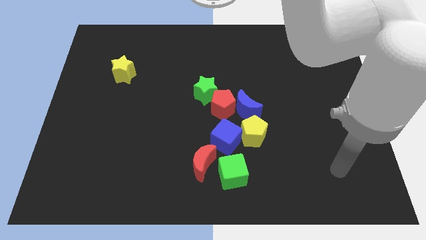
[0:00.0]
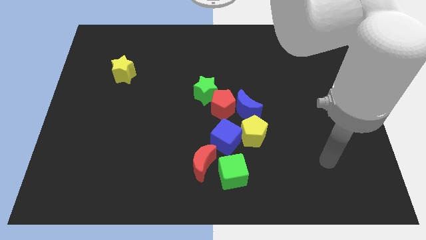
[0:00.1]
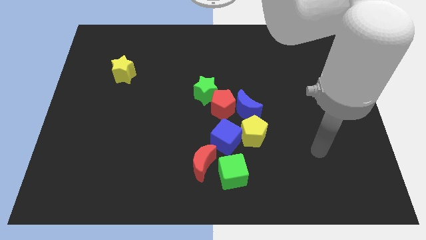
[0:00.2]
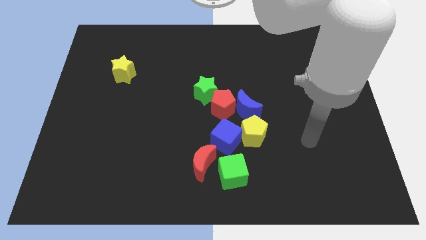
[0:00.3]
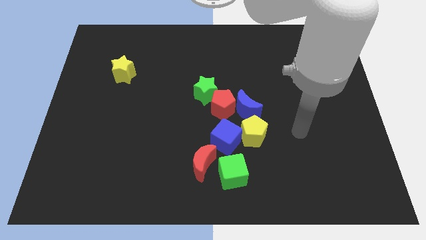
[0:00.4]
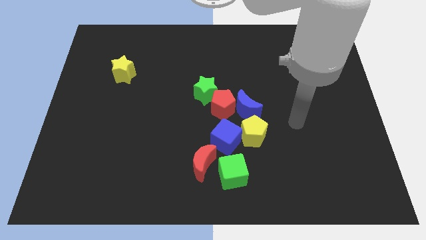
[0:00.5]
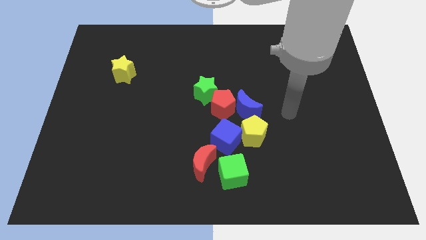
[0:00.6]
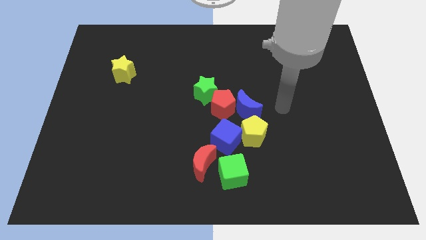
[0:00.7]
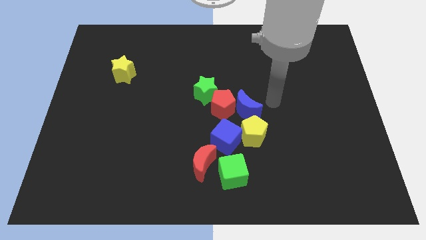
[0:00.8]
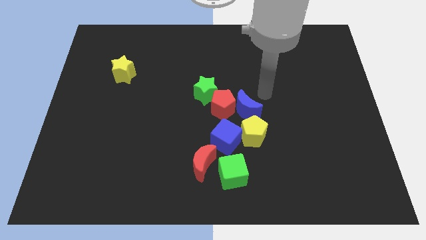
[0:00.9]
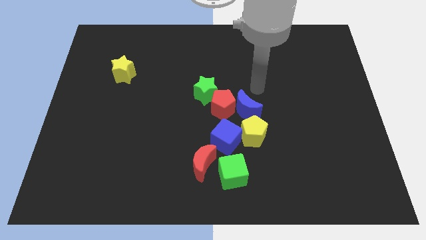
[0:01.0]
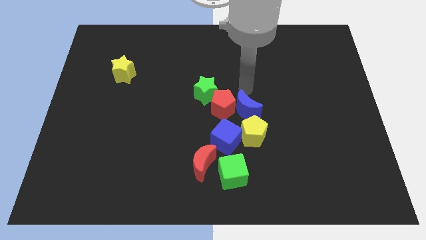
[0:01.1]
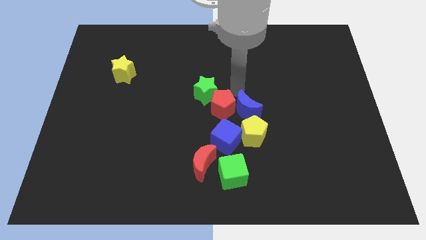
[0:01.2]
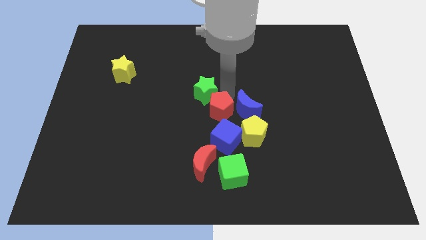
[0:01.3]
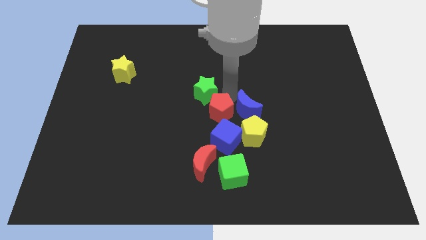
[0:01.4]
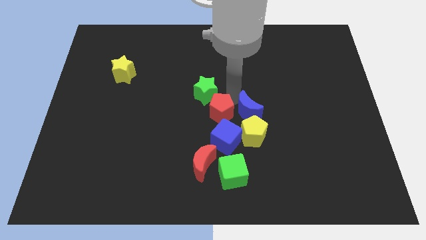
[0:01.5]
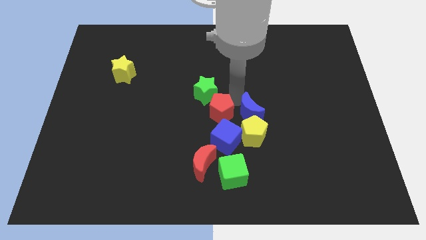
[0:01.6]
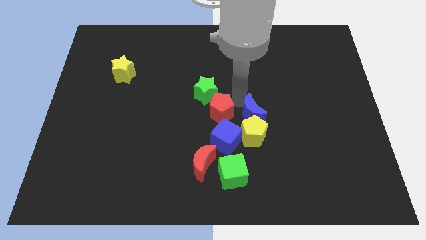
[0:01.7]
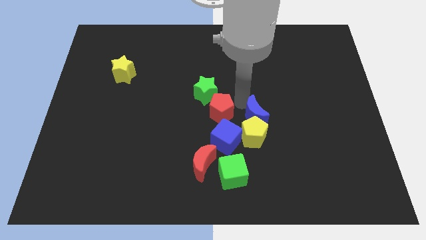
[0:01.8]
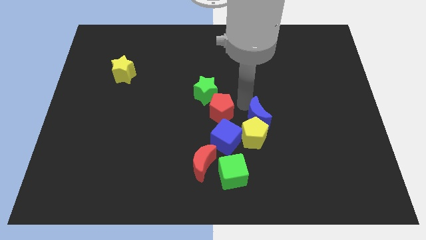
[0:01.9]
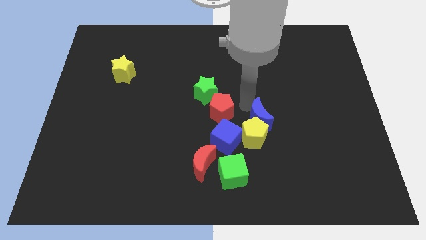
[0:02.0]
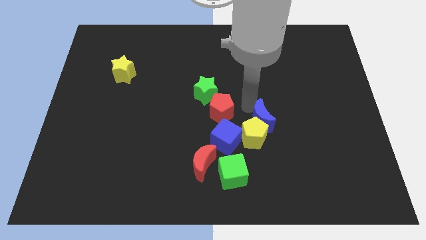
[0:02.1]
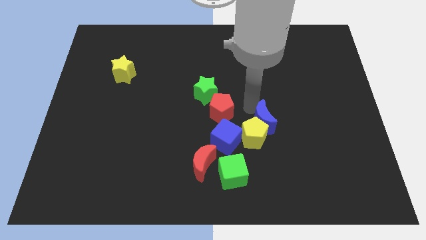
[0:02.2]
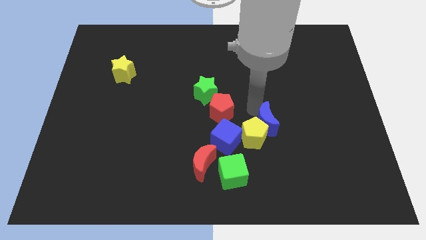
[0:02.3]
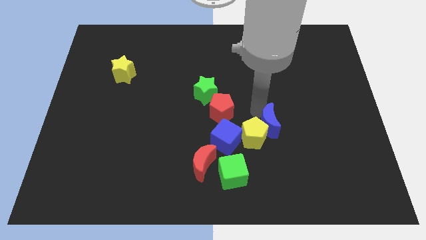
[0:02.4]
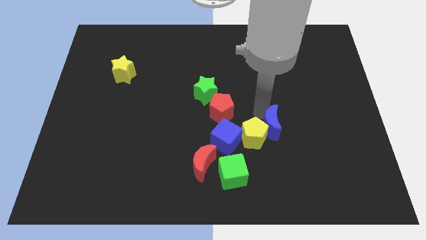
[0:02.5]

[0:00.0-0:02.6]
slide the blue moon down and right diagonally a little bit

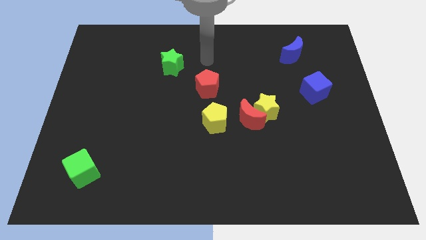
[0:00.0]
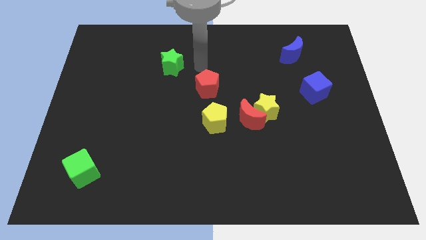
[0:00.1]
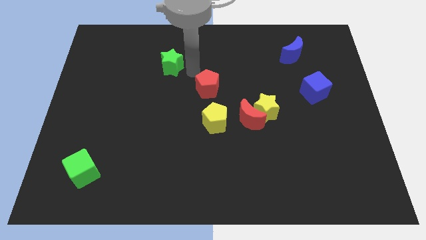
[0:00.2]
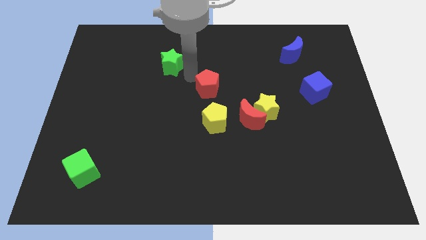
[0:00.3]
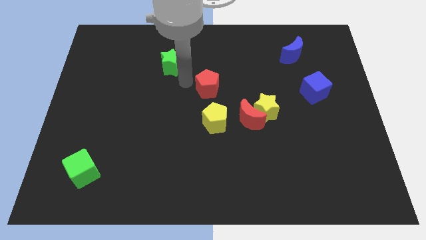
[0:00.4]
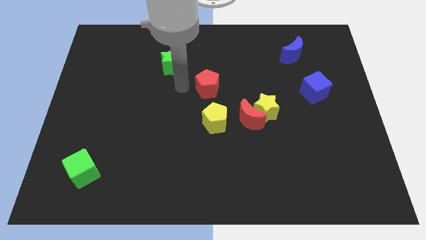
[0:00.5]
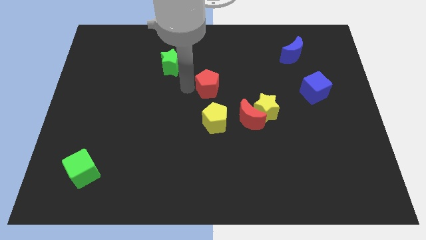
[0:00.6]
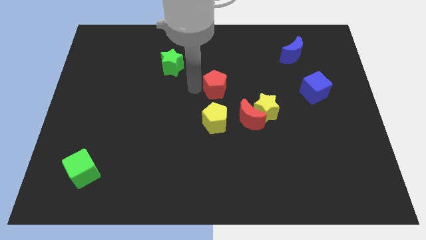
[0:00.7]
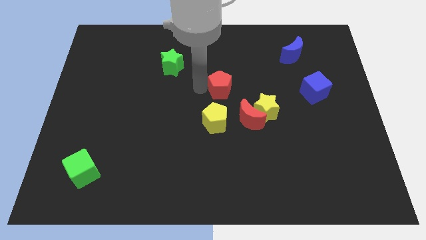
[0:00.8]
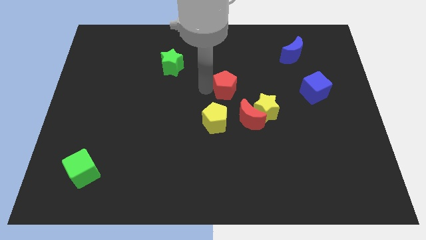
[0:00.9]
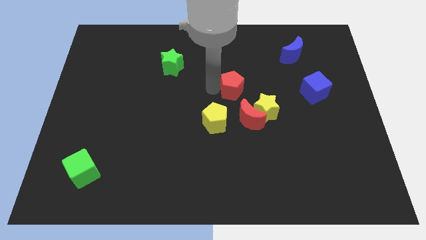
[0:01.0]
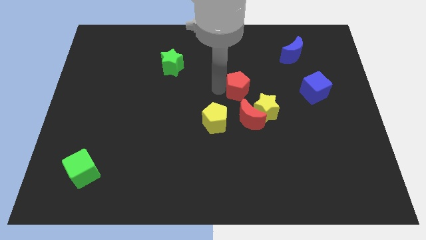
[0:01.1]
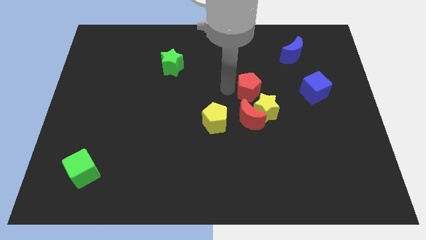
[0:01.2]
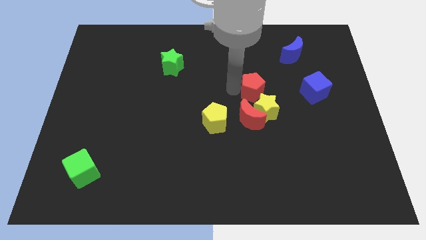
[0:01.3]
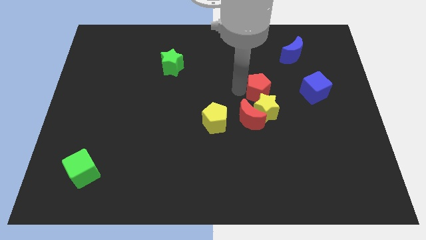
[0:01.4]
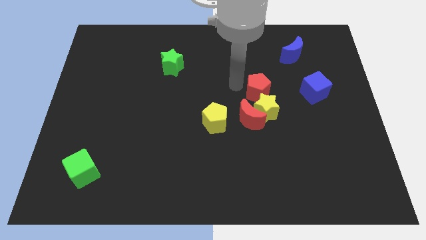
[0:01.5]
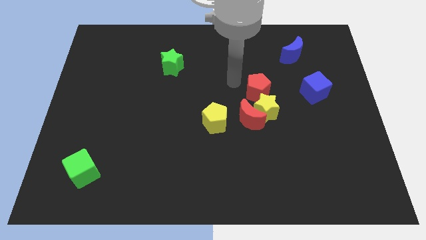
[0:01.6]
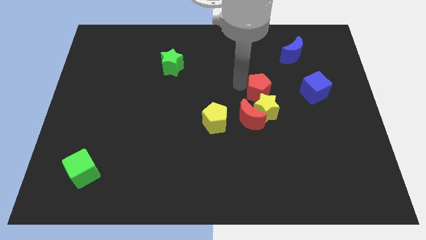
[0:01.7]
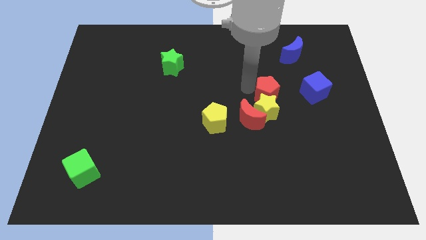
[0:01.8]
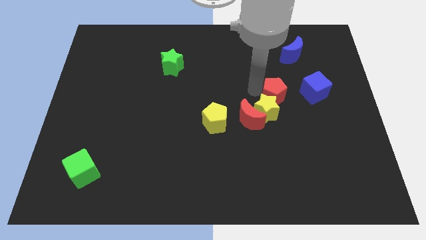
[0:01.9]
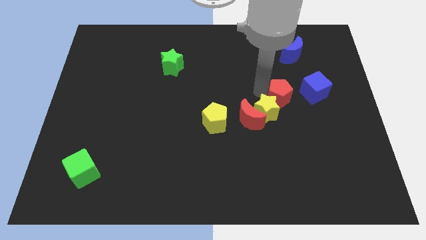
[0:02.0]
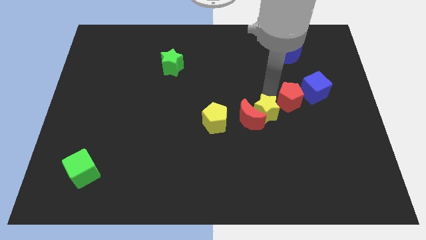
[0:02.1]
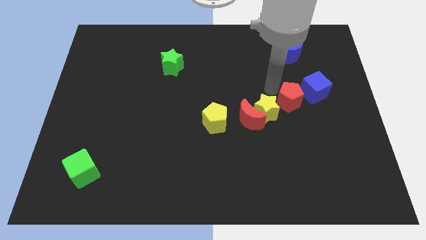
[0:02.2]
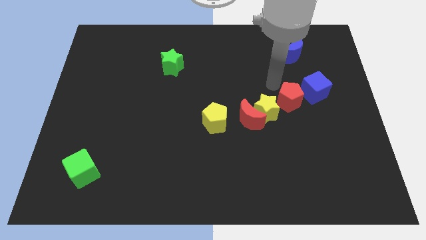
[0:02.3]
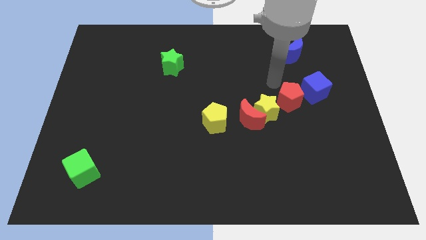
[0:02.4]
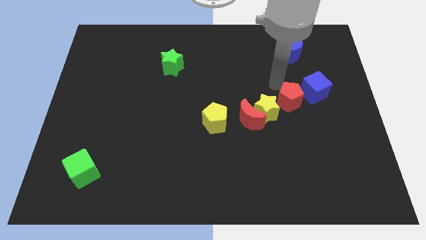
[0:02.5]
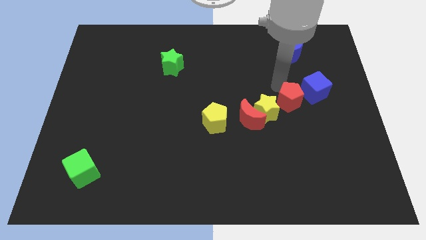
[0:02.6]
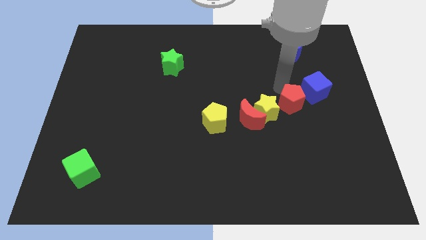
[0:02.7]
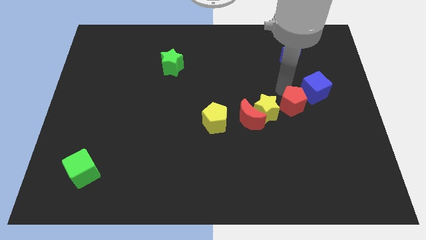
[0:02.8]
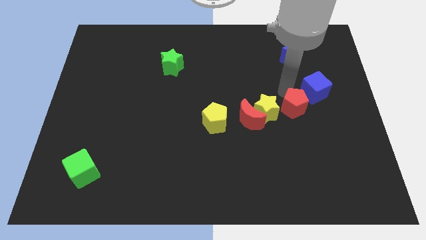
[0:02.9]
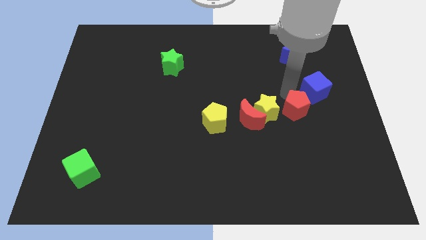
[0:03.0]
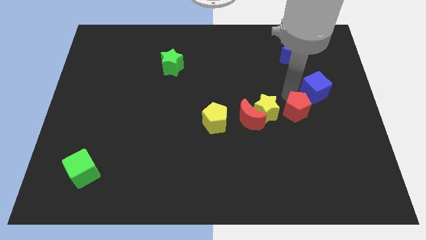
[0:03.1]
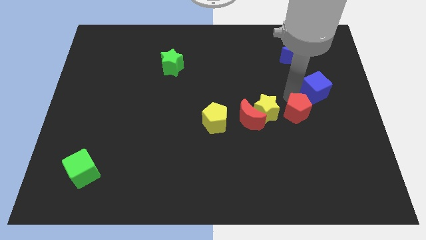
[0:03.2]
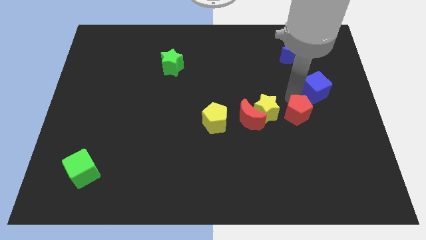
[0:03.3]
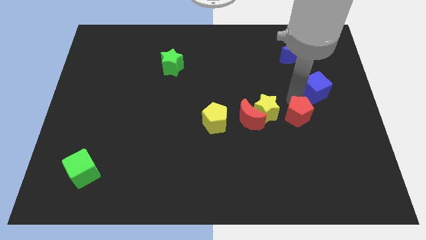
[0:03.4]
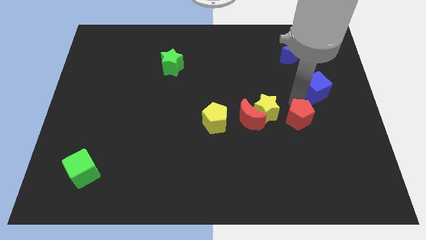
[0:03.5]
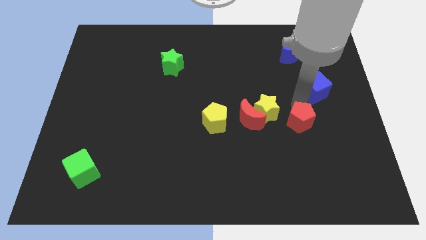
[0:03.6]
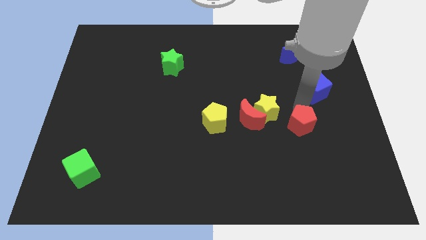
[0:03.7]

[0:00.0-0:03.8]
move the red pentagon downwards and then to the right

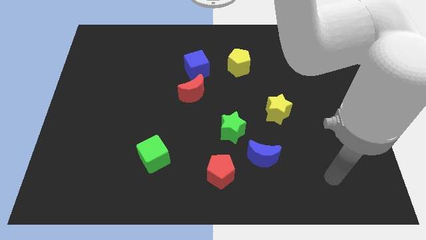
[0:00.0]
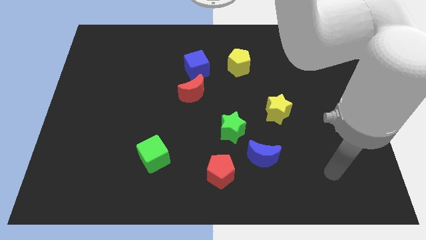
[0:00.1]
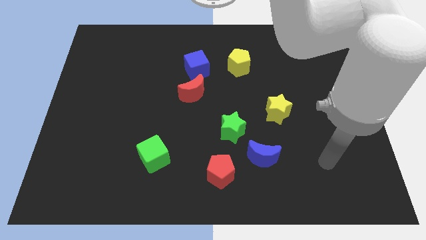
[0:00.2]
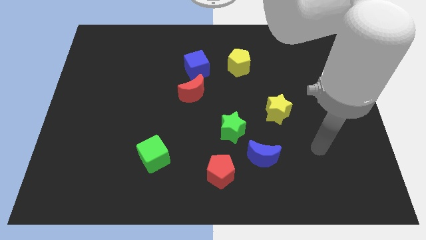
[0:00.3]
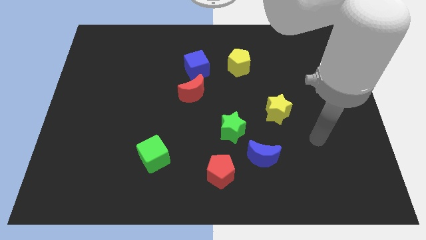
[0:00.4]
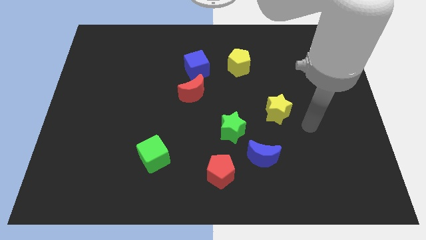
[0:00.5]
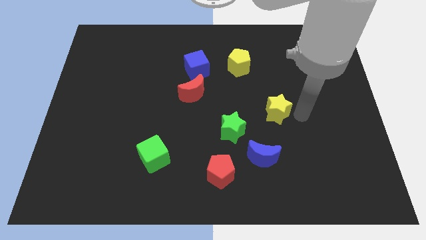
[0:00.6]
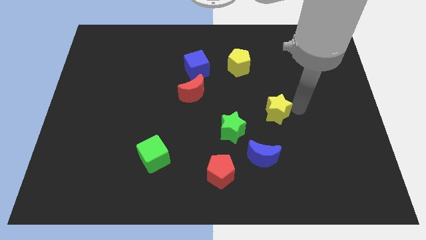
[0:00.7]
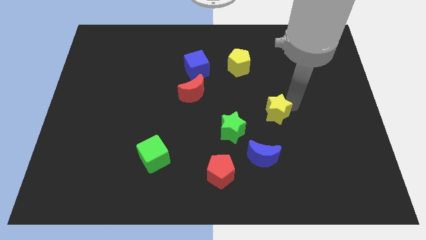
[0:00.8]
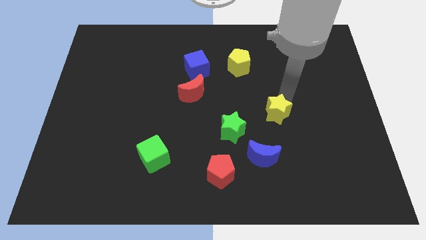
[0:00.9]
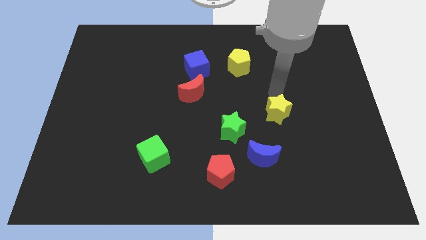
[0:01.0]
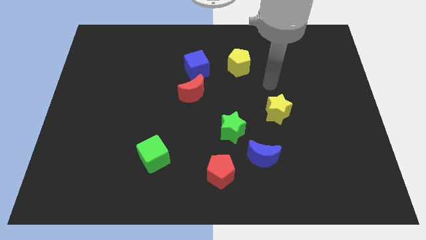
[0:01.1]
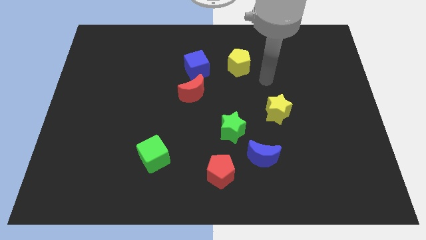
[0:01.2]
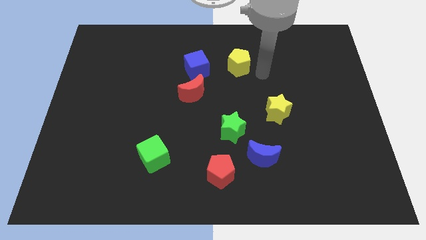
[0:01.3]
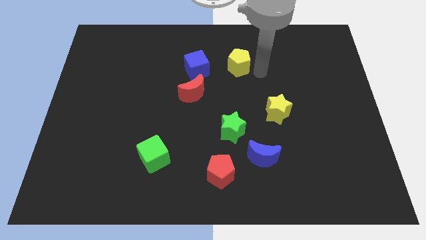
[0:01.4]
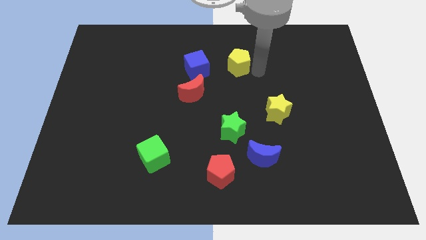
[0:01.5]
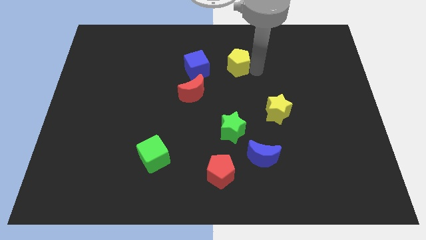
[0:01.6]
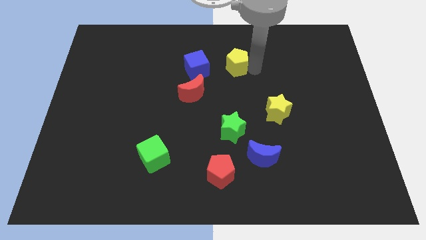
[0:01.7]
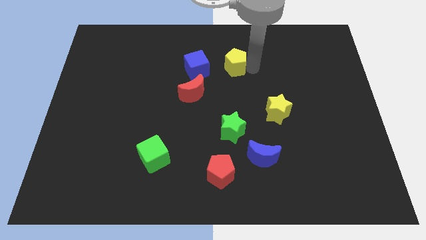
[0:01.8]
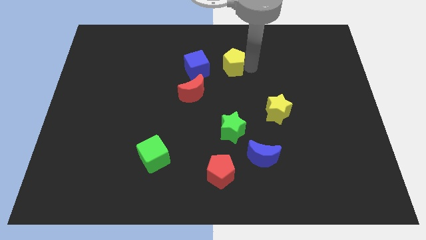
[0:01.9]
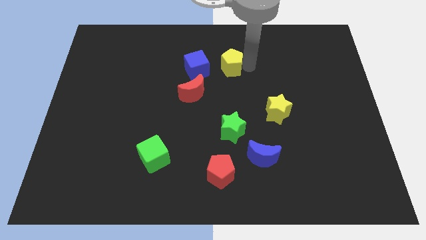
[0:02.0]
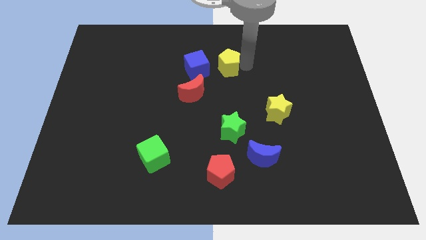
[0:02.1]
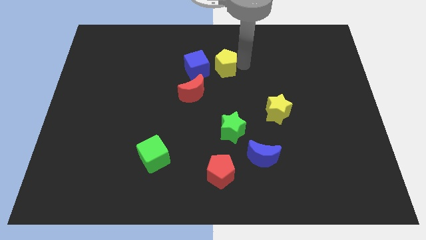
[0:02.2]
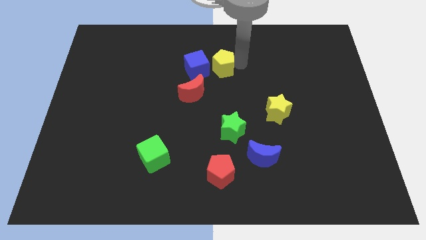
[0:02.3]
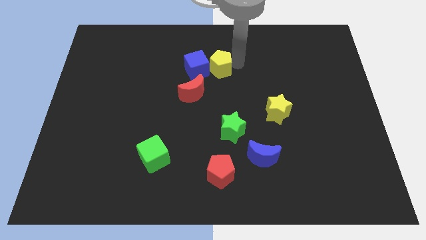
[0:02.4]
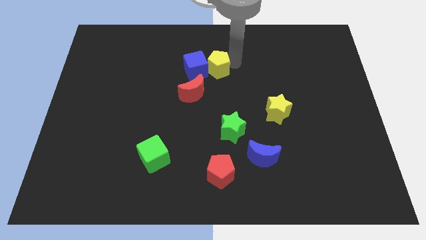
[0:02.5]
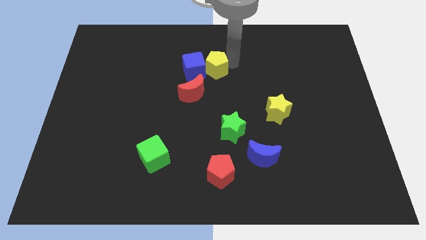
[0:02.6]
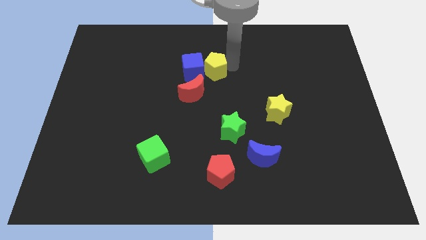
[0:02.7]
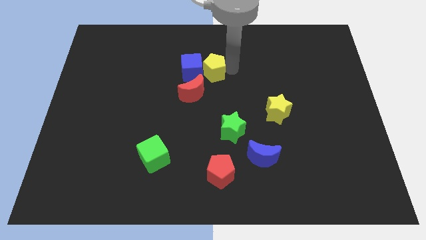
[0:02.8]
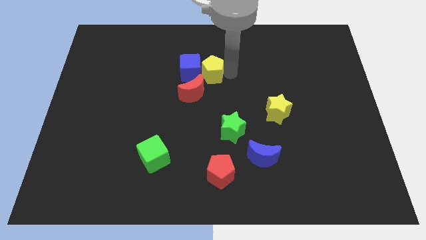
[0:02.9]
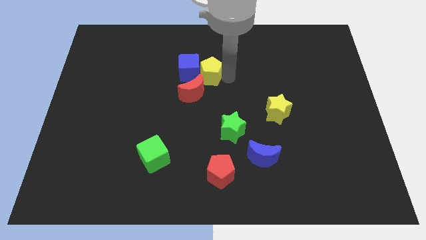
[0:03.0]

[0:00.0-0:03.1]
slide the yellow pentagon to the left somewhat
